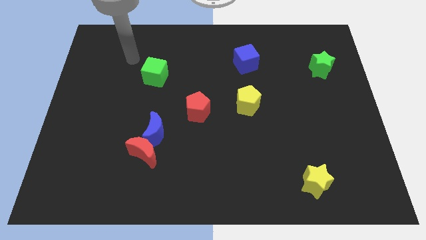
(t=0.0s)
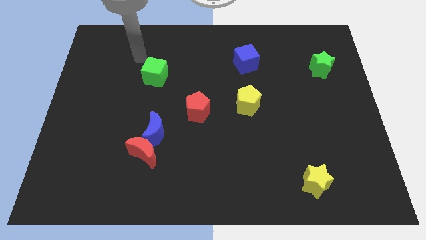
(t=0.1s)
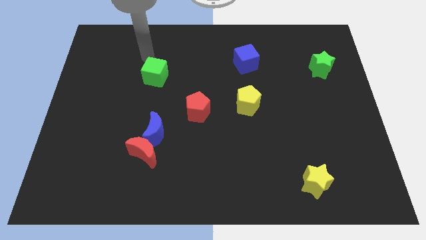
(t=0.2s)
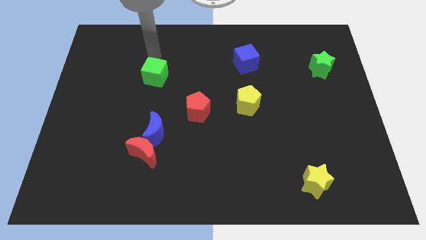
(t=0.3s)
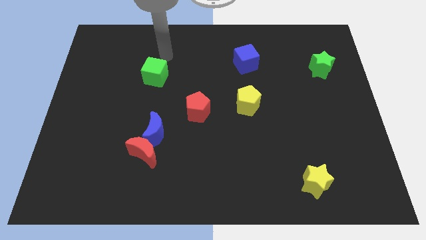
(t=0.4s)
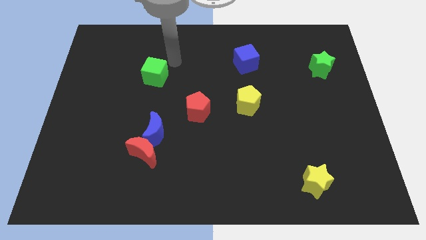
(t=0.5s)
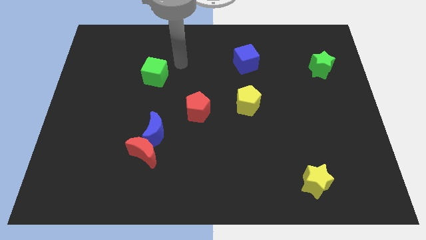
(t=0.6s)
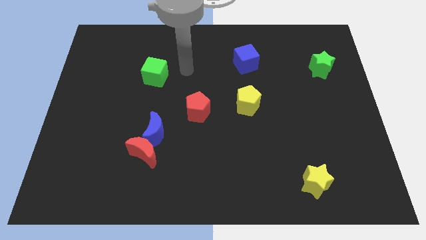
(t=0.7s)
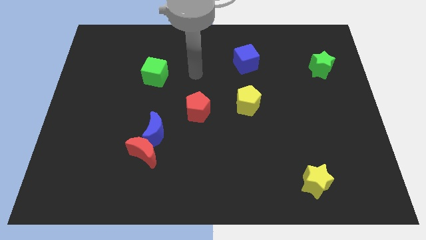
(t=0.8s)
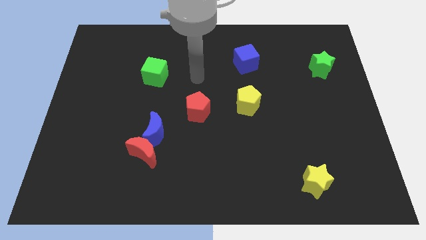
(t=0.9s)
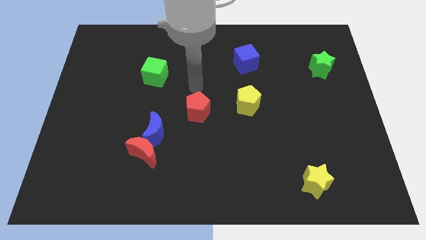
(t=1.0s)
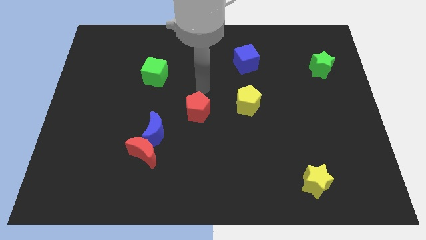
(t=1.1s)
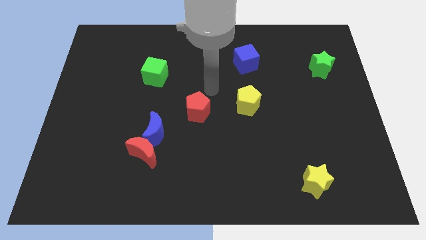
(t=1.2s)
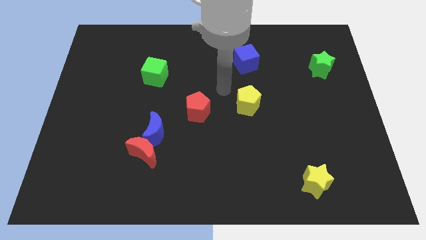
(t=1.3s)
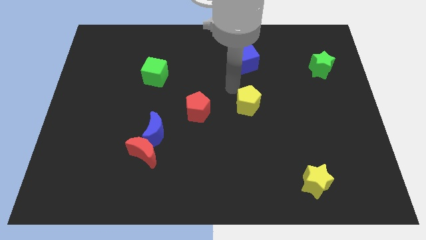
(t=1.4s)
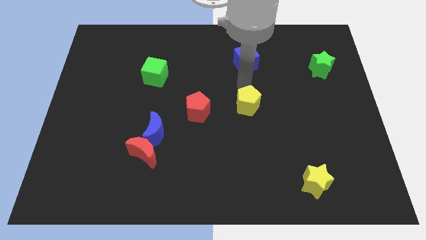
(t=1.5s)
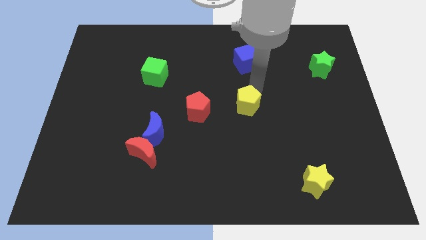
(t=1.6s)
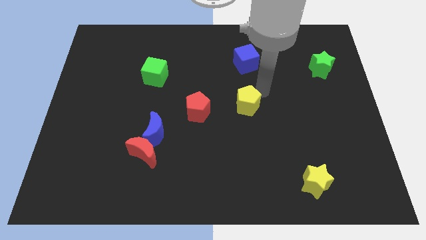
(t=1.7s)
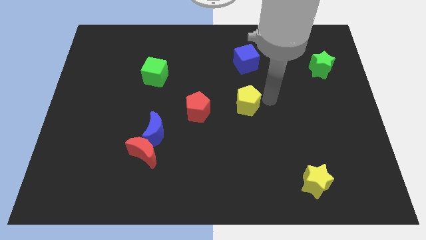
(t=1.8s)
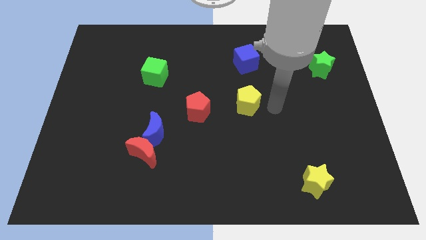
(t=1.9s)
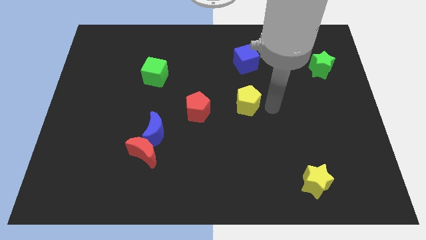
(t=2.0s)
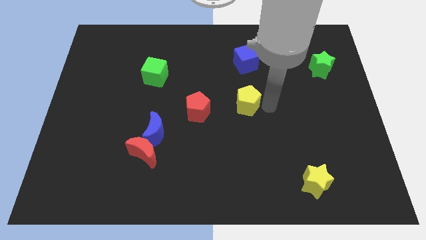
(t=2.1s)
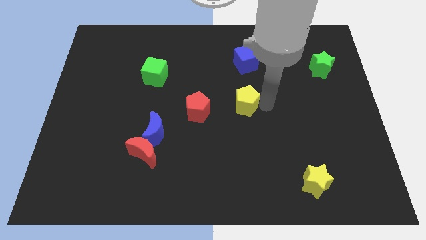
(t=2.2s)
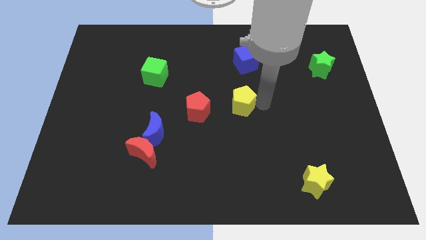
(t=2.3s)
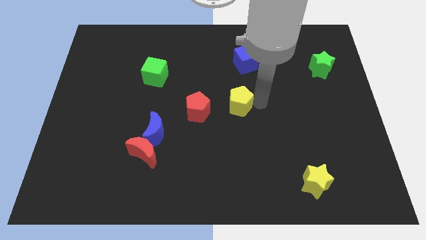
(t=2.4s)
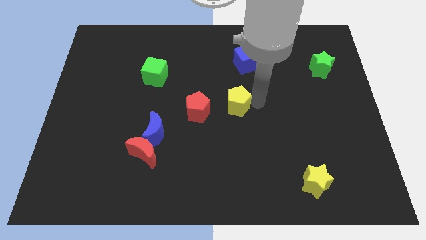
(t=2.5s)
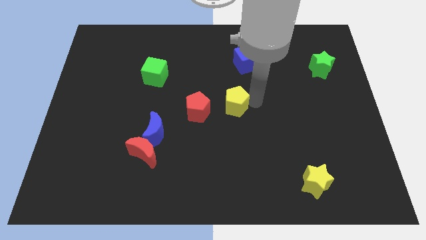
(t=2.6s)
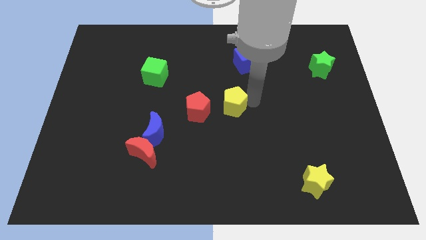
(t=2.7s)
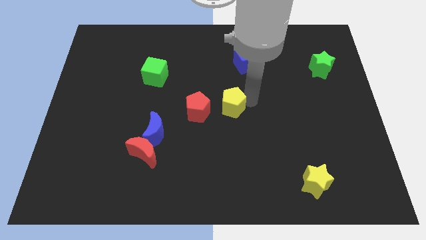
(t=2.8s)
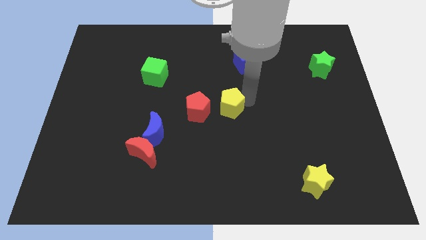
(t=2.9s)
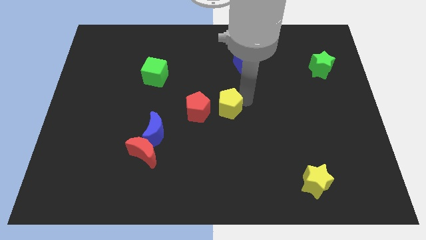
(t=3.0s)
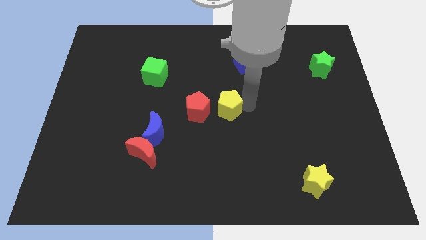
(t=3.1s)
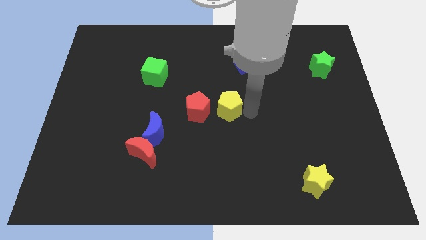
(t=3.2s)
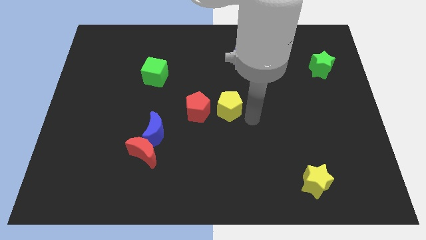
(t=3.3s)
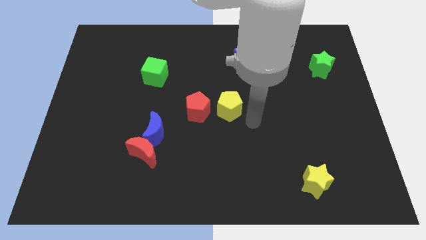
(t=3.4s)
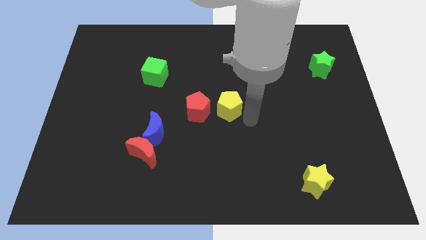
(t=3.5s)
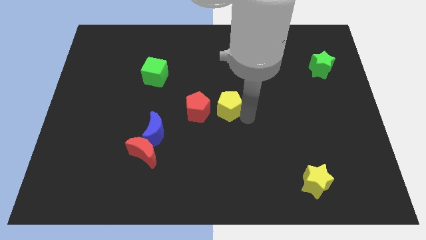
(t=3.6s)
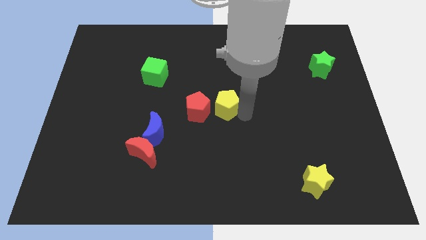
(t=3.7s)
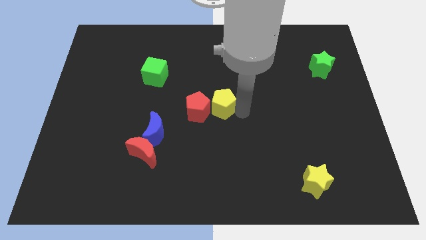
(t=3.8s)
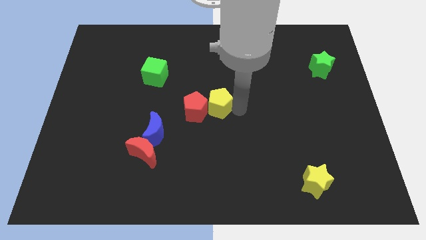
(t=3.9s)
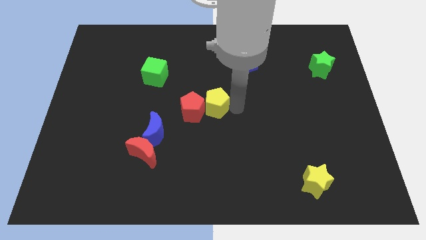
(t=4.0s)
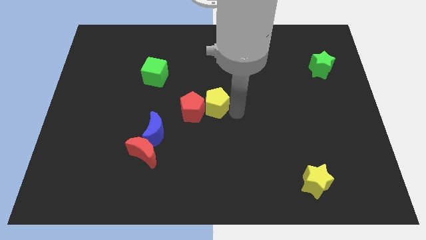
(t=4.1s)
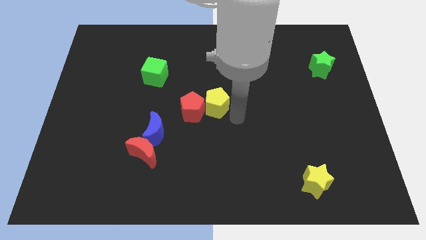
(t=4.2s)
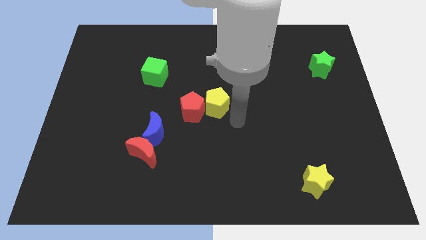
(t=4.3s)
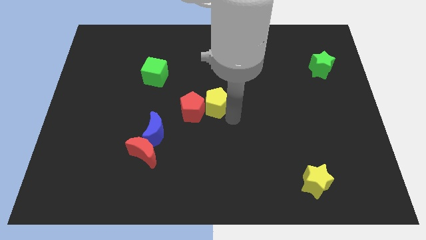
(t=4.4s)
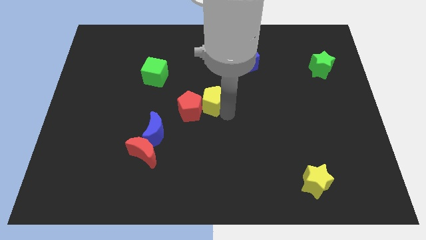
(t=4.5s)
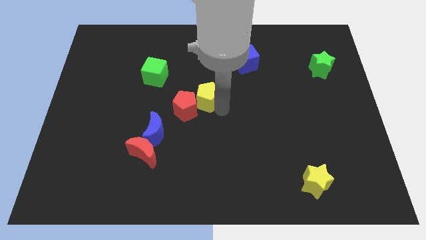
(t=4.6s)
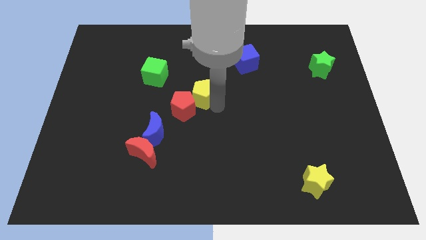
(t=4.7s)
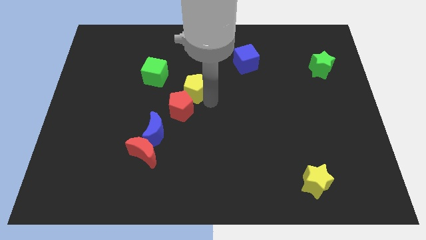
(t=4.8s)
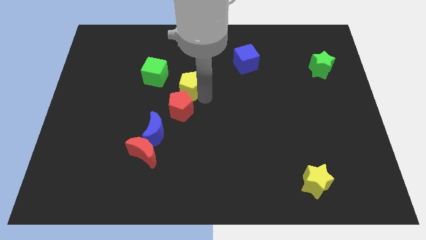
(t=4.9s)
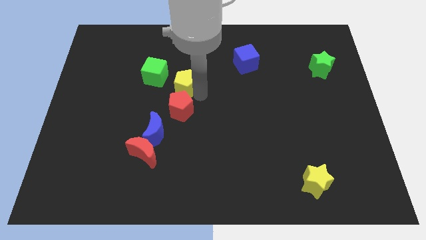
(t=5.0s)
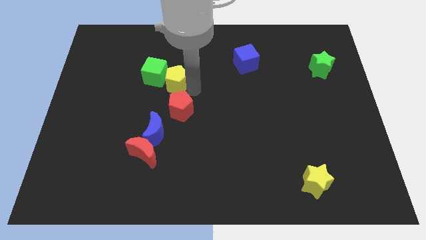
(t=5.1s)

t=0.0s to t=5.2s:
push the yellow pentagon next to the green cube

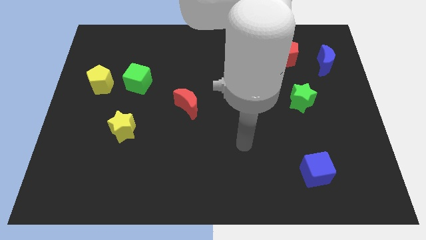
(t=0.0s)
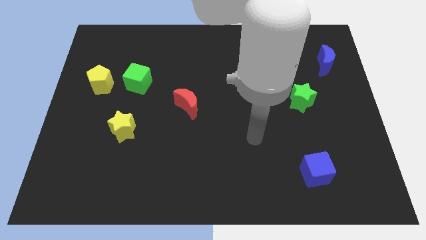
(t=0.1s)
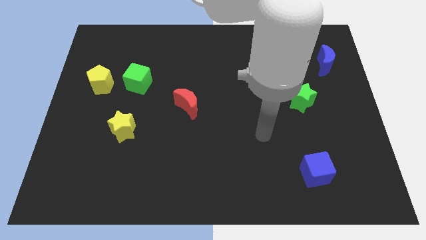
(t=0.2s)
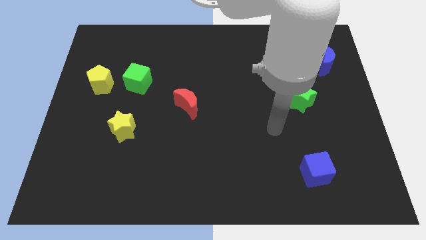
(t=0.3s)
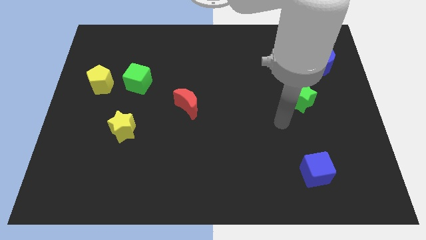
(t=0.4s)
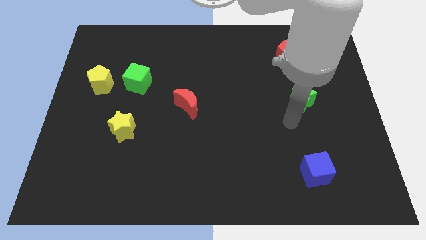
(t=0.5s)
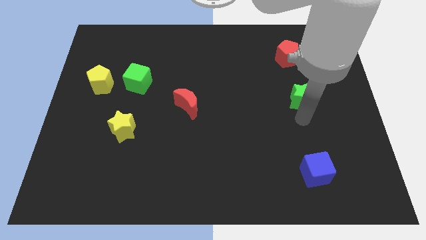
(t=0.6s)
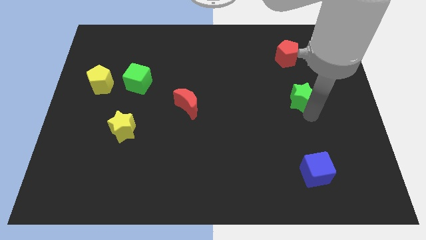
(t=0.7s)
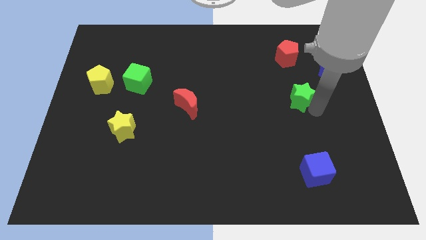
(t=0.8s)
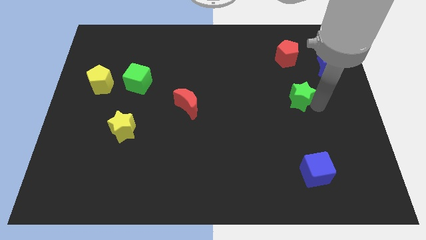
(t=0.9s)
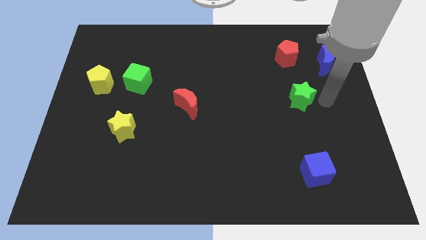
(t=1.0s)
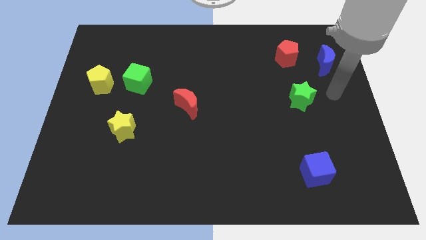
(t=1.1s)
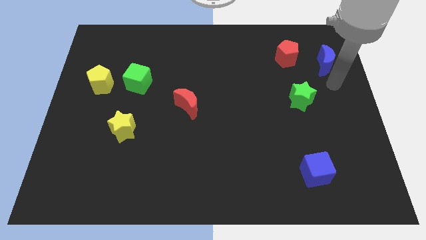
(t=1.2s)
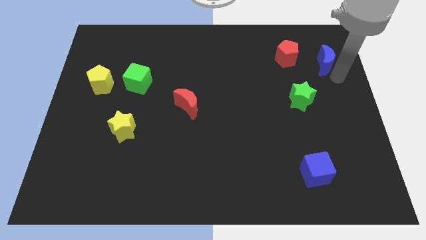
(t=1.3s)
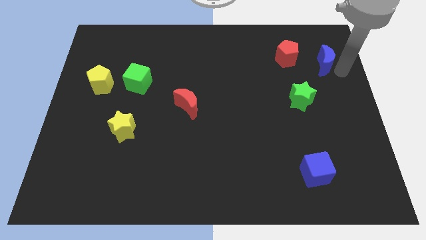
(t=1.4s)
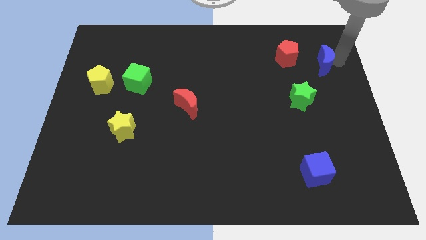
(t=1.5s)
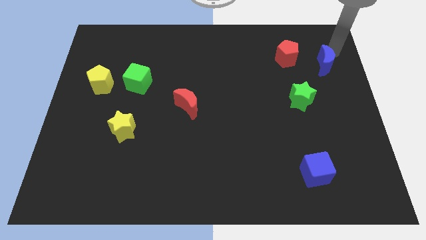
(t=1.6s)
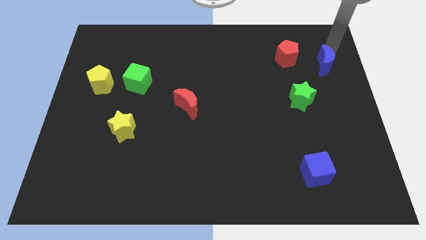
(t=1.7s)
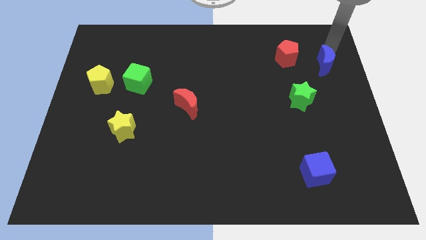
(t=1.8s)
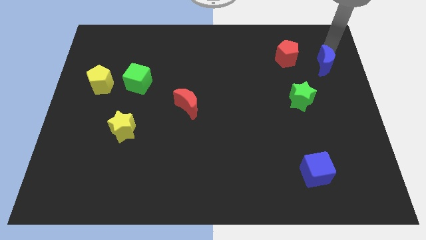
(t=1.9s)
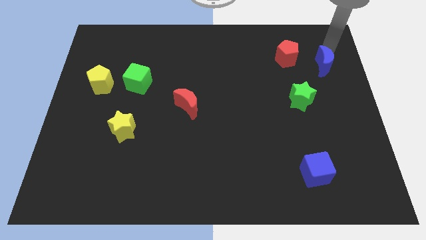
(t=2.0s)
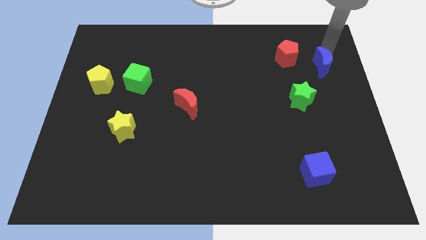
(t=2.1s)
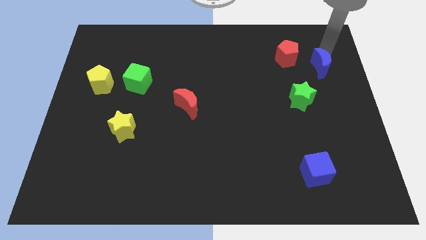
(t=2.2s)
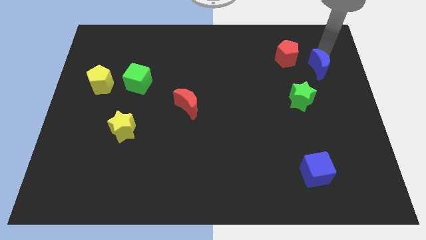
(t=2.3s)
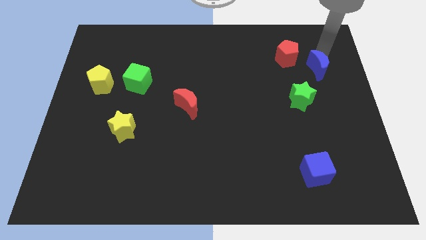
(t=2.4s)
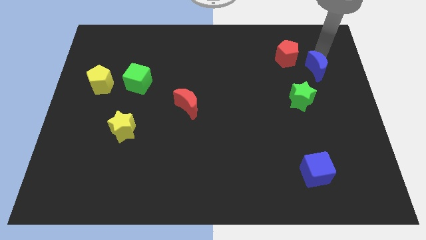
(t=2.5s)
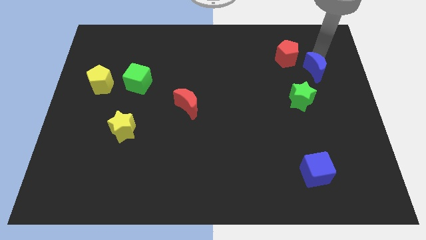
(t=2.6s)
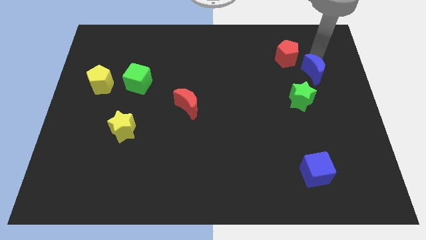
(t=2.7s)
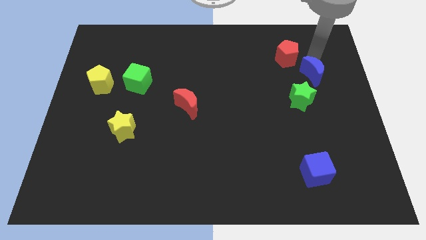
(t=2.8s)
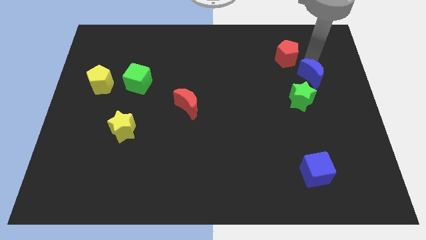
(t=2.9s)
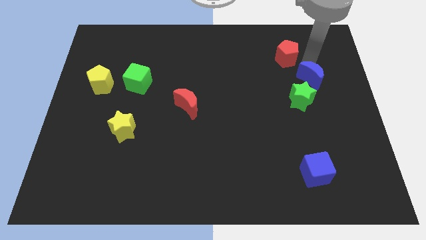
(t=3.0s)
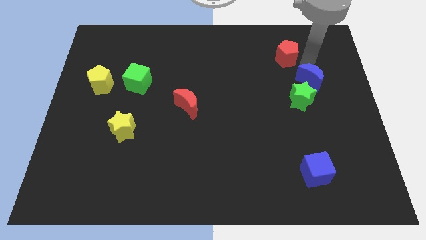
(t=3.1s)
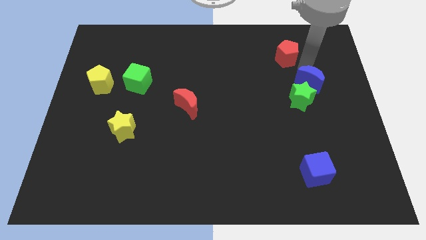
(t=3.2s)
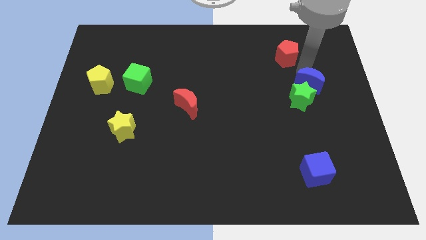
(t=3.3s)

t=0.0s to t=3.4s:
slide the blue moon close to the green star
